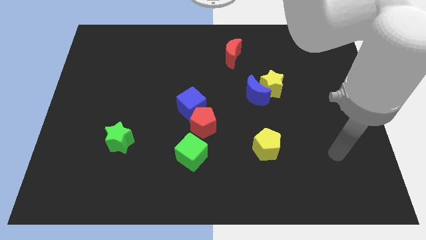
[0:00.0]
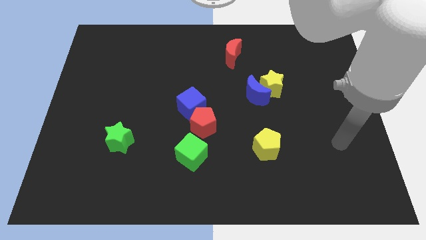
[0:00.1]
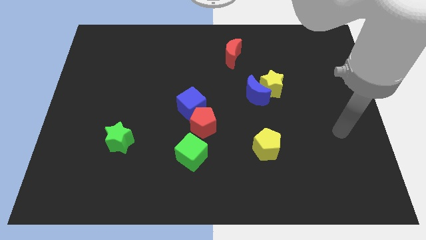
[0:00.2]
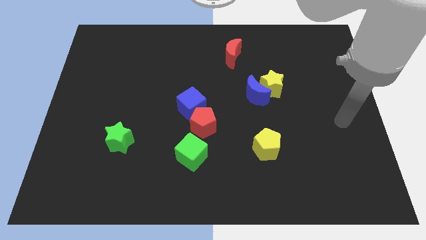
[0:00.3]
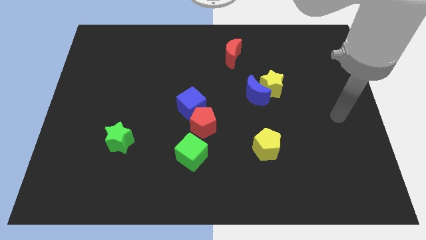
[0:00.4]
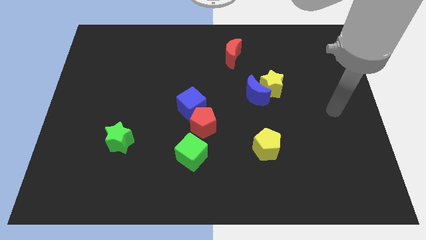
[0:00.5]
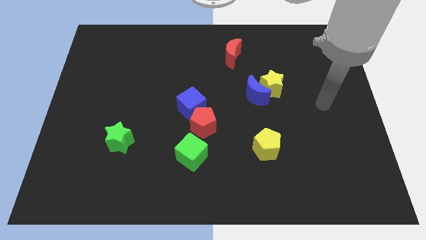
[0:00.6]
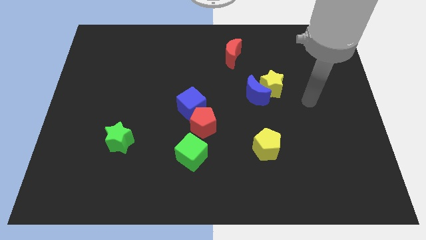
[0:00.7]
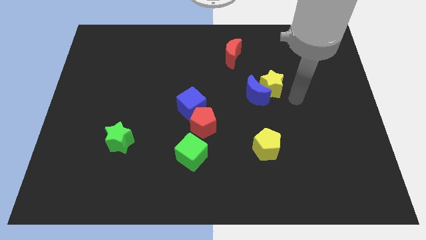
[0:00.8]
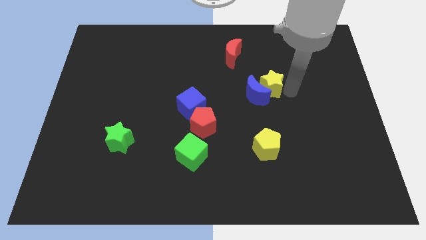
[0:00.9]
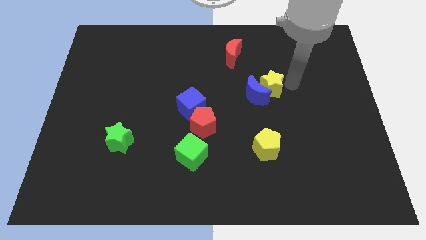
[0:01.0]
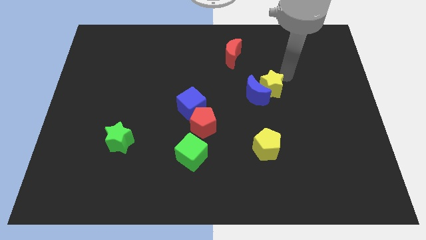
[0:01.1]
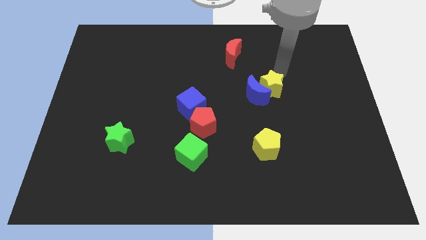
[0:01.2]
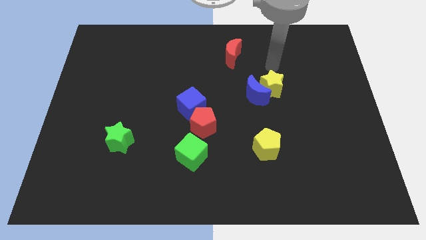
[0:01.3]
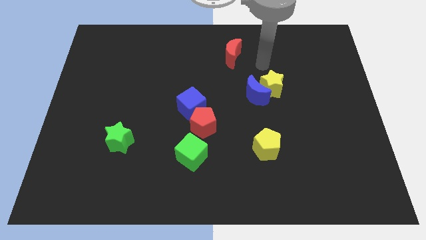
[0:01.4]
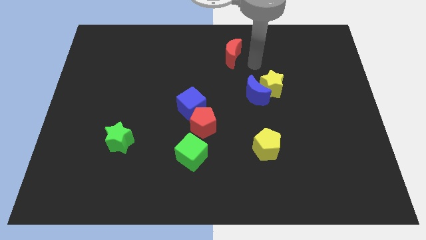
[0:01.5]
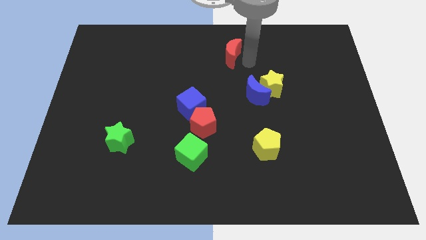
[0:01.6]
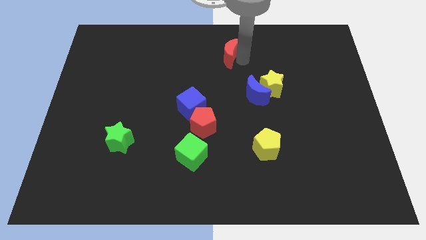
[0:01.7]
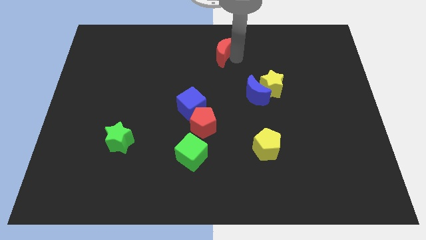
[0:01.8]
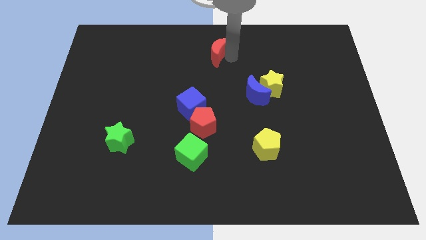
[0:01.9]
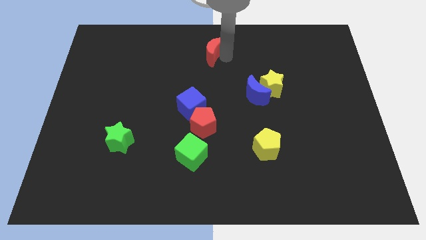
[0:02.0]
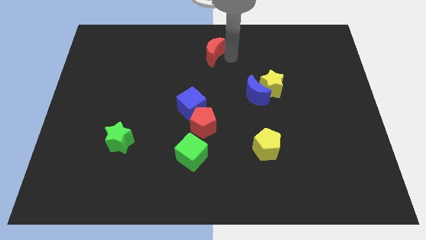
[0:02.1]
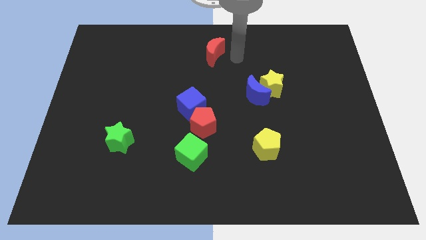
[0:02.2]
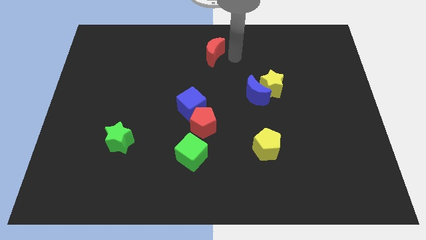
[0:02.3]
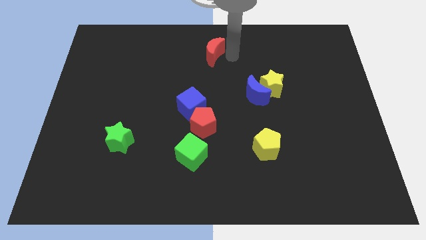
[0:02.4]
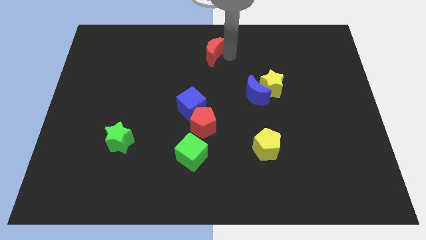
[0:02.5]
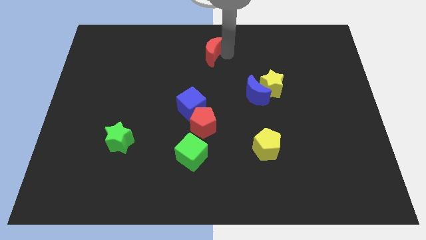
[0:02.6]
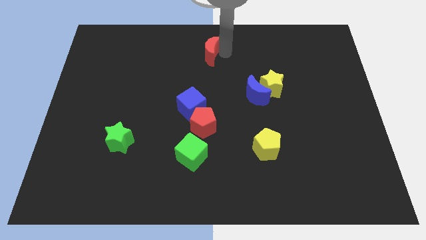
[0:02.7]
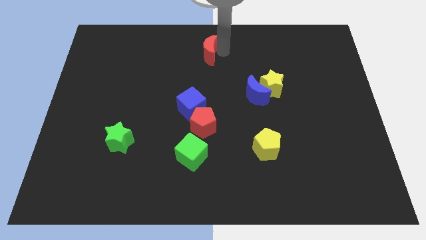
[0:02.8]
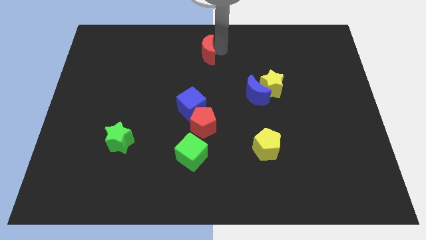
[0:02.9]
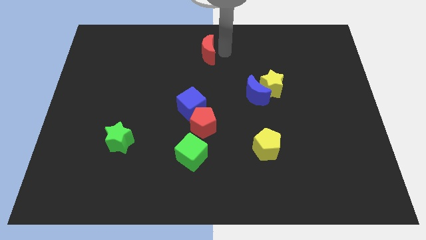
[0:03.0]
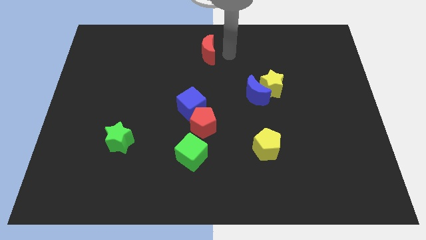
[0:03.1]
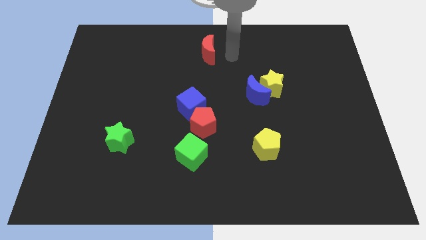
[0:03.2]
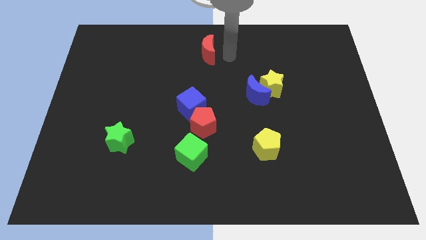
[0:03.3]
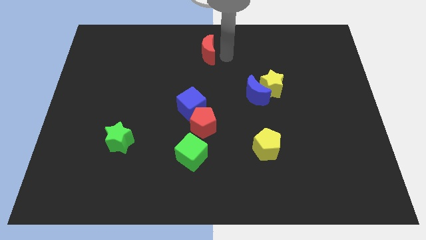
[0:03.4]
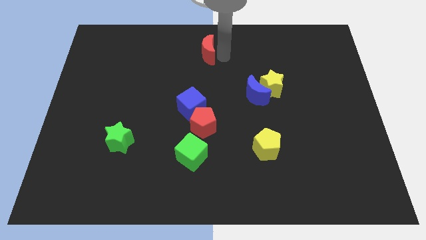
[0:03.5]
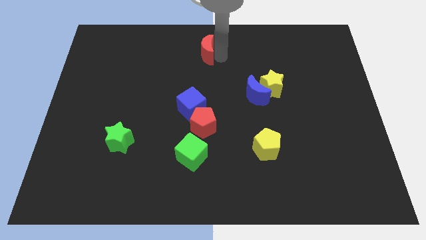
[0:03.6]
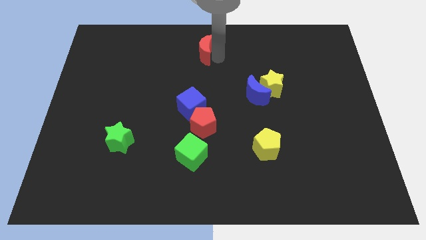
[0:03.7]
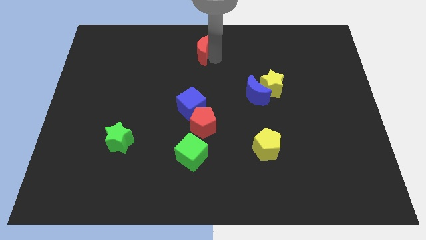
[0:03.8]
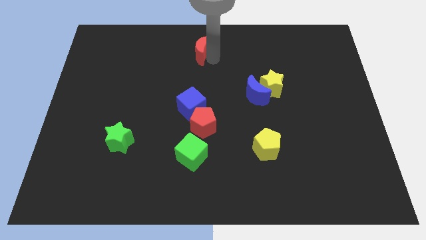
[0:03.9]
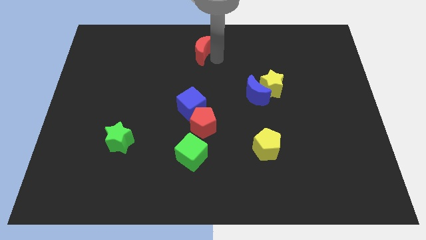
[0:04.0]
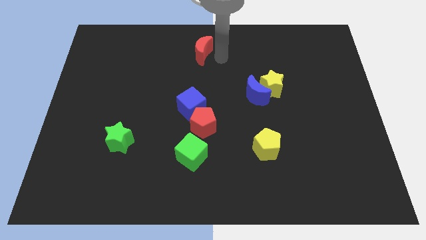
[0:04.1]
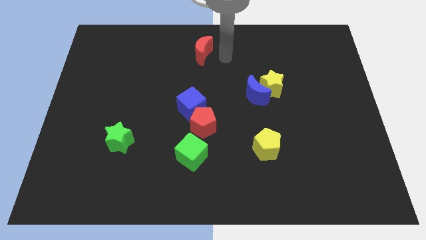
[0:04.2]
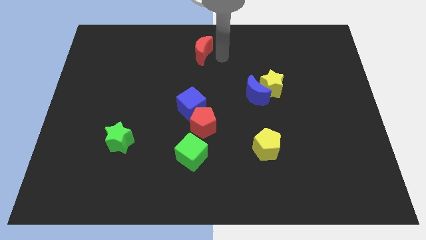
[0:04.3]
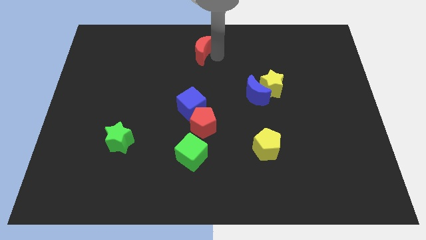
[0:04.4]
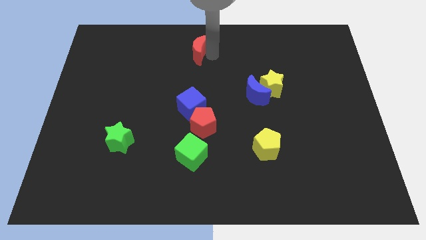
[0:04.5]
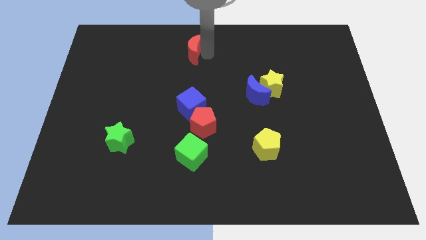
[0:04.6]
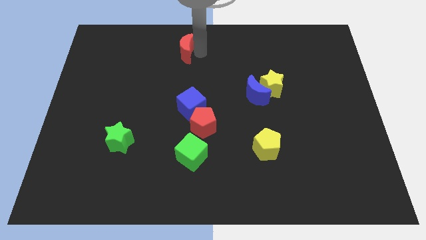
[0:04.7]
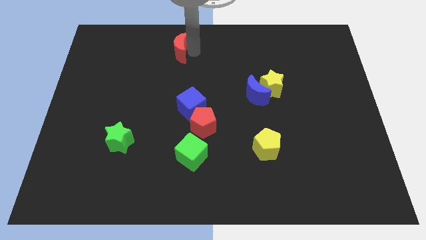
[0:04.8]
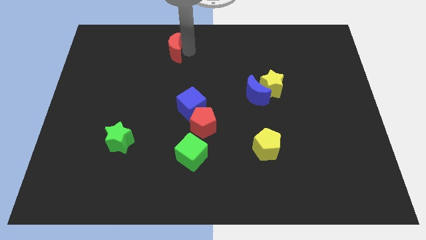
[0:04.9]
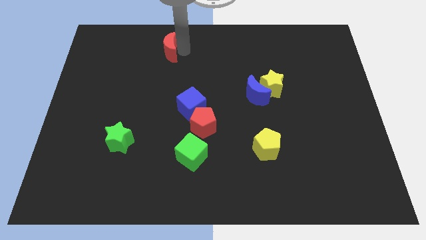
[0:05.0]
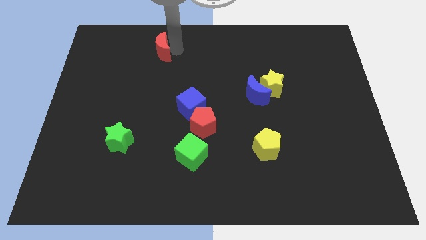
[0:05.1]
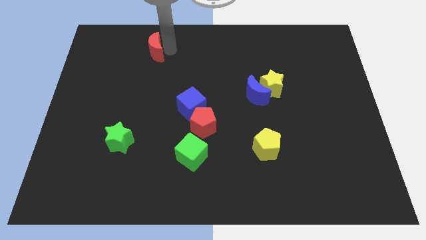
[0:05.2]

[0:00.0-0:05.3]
push the red moon left

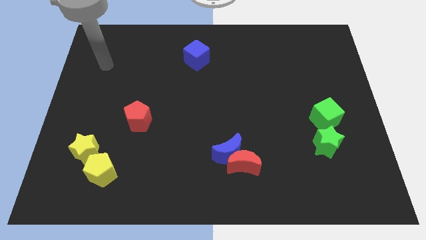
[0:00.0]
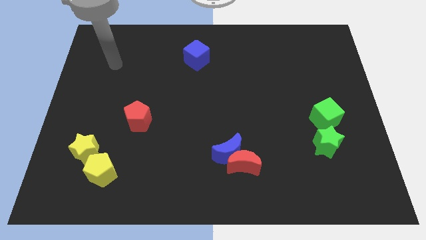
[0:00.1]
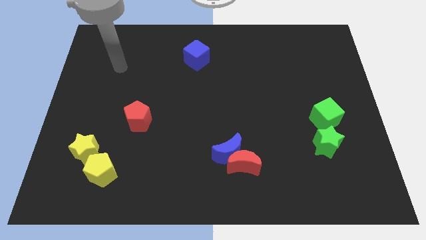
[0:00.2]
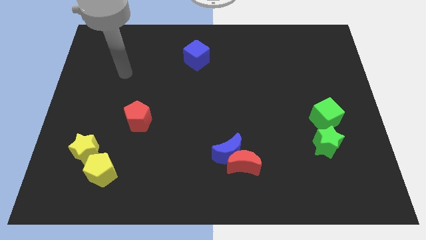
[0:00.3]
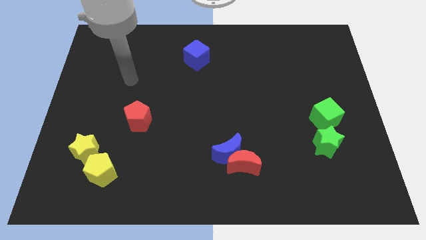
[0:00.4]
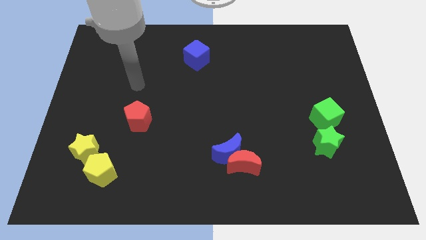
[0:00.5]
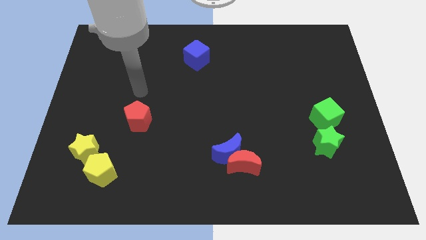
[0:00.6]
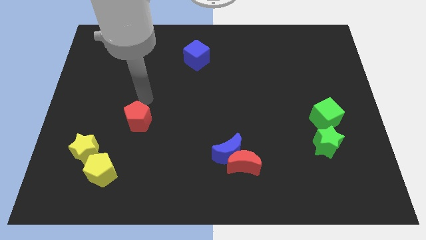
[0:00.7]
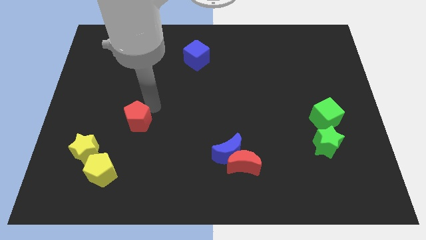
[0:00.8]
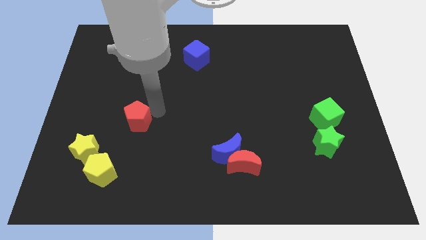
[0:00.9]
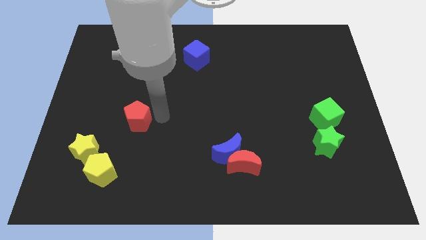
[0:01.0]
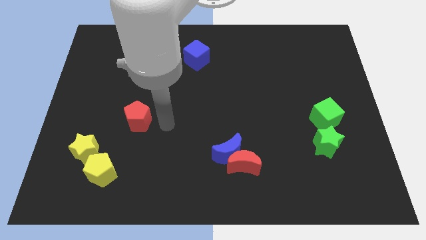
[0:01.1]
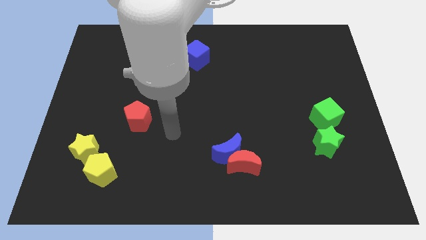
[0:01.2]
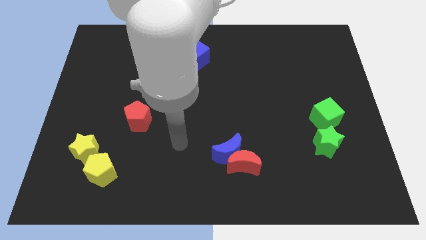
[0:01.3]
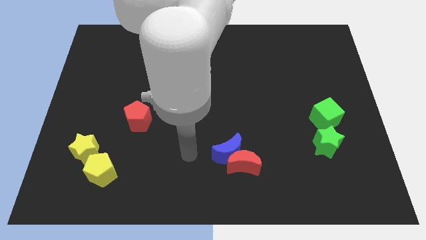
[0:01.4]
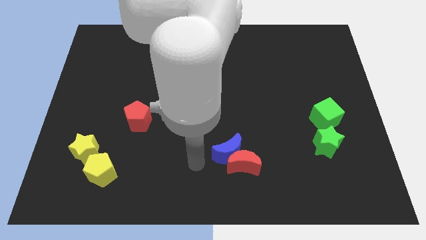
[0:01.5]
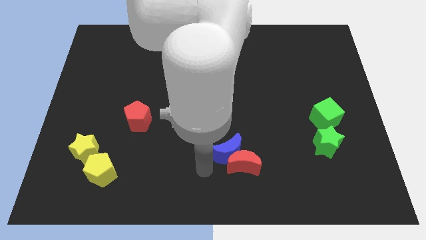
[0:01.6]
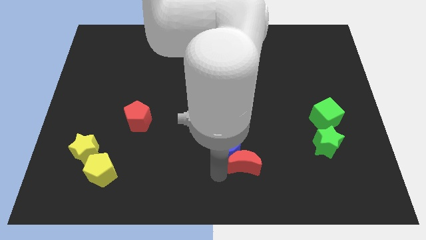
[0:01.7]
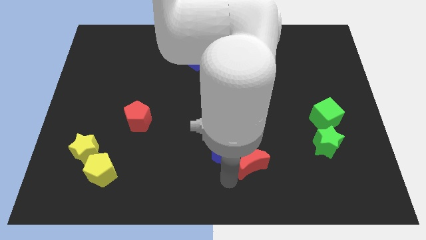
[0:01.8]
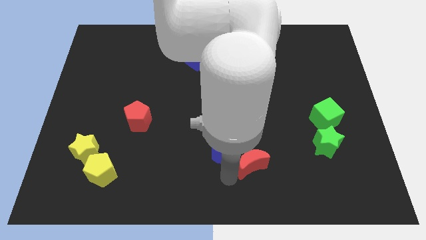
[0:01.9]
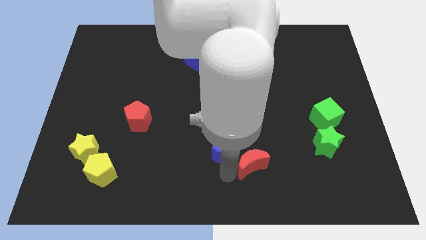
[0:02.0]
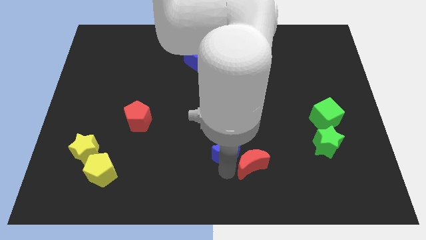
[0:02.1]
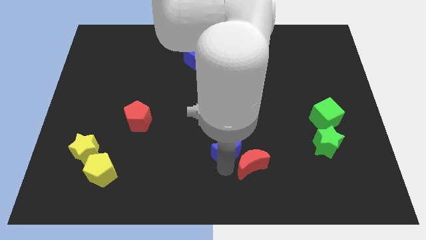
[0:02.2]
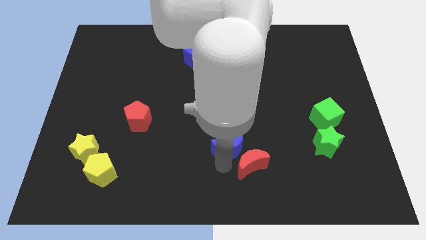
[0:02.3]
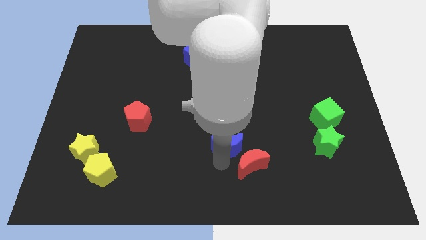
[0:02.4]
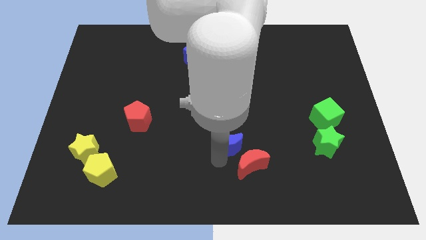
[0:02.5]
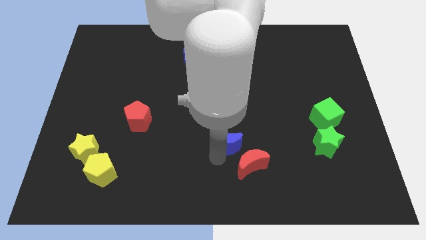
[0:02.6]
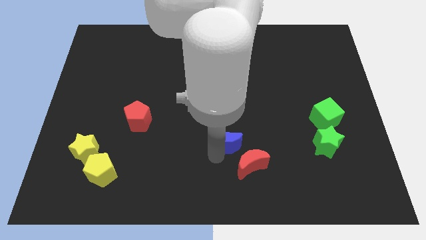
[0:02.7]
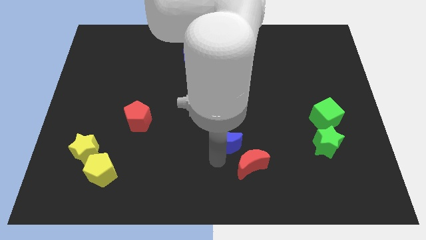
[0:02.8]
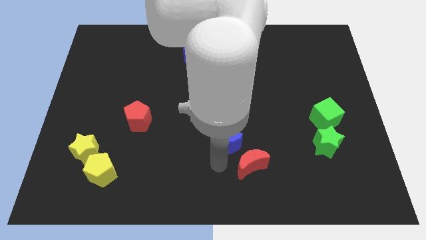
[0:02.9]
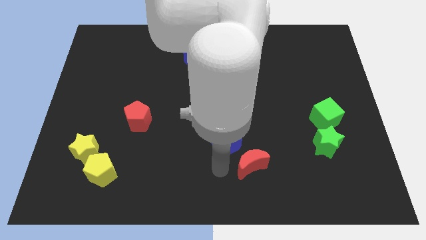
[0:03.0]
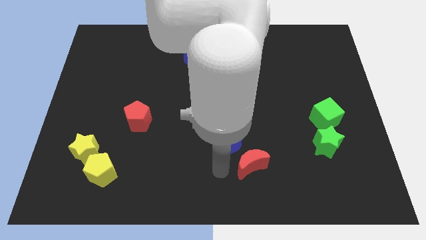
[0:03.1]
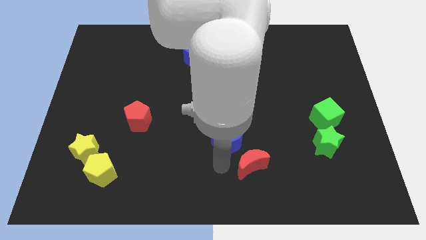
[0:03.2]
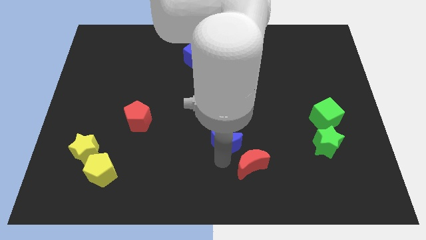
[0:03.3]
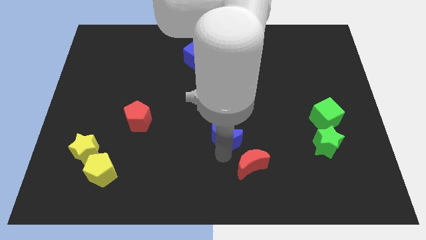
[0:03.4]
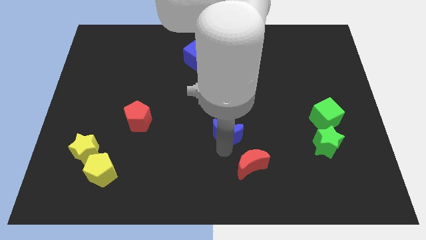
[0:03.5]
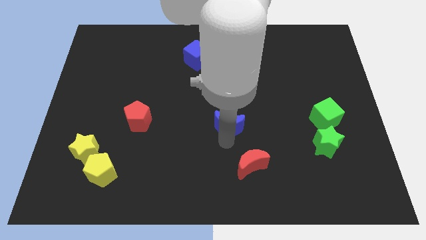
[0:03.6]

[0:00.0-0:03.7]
move the blue moon slightly up
